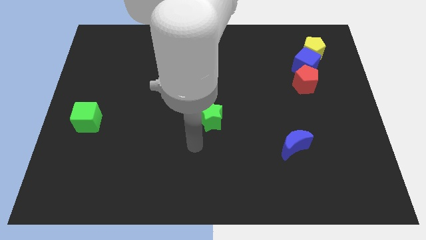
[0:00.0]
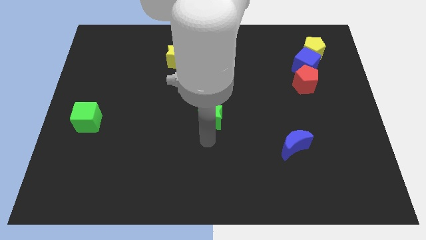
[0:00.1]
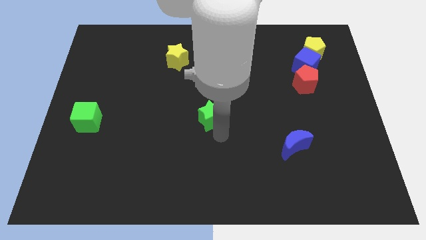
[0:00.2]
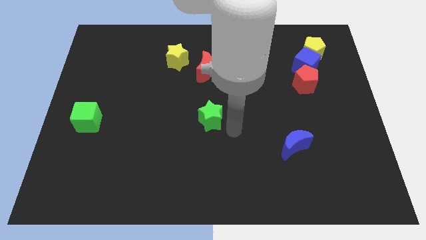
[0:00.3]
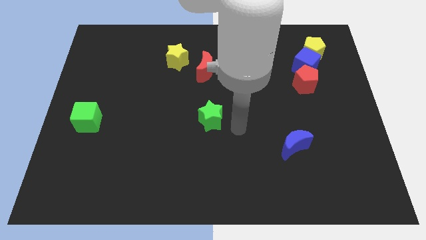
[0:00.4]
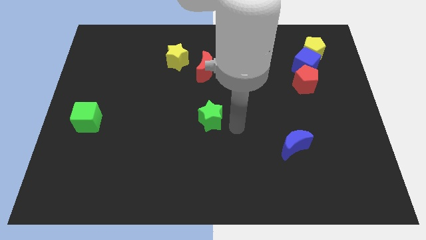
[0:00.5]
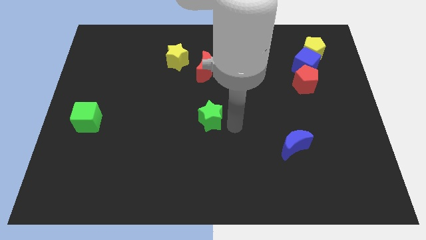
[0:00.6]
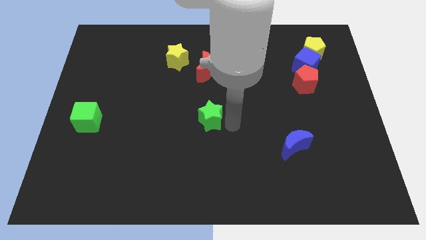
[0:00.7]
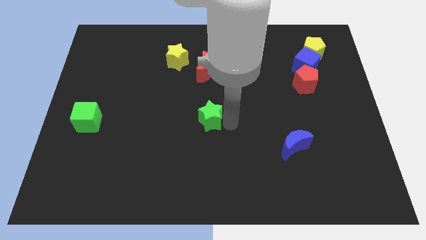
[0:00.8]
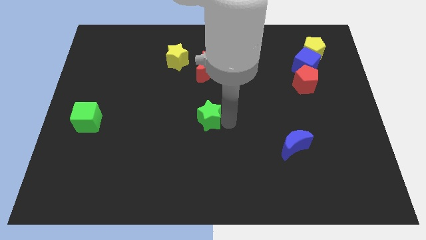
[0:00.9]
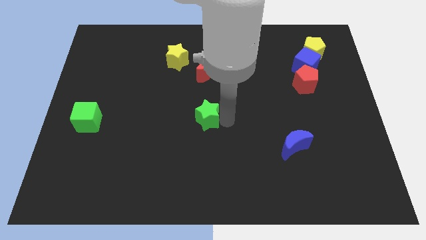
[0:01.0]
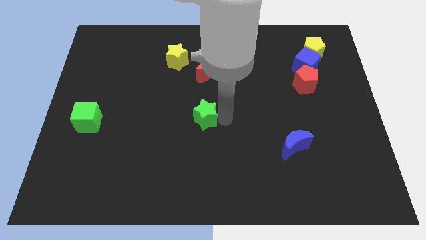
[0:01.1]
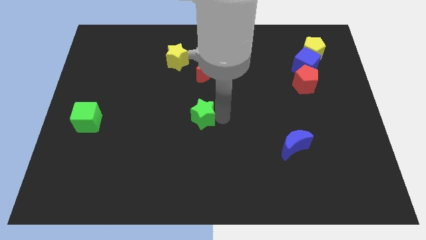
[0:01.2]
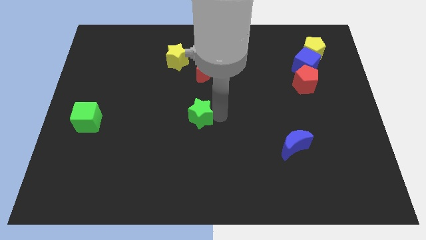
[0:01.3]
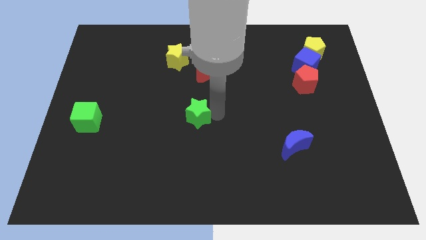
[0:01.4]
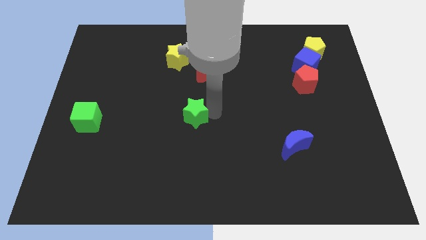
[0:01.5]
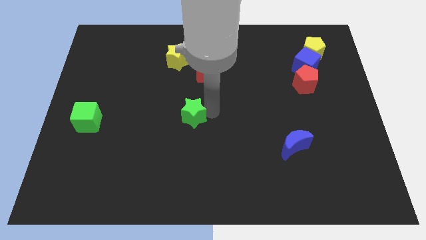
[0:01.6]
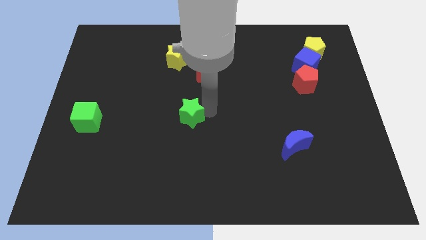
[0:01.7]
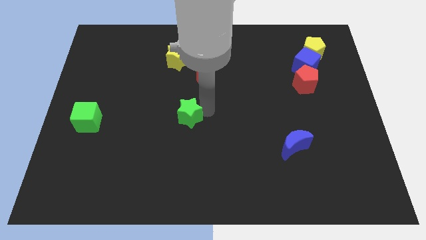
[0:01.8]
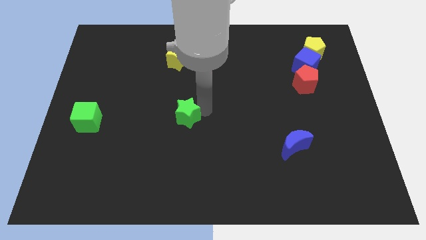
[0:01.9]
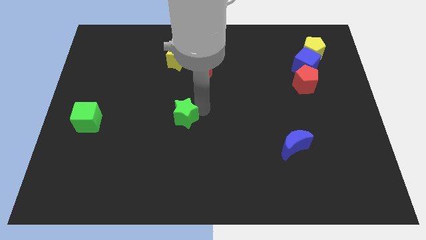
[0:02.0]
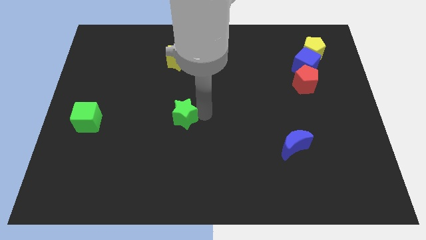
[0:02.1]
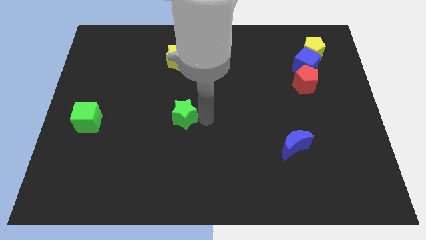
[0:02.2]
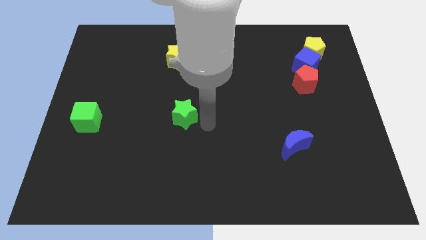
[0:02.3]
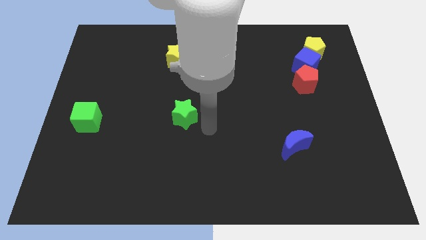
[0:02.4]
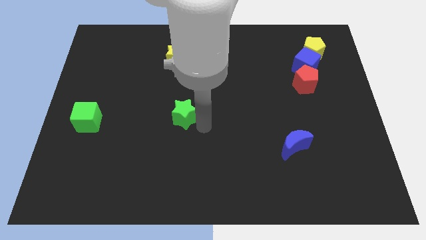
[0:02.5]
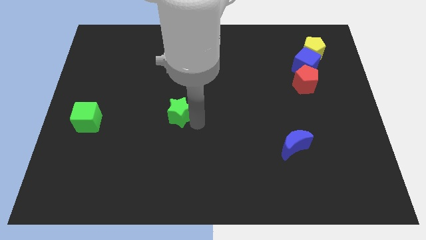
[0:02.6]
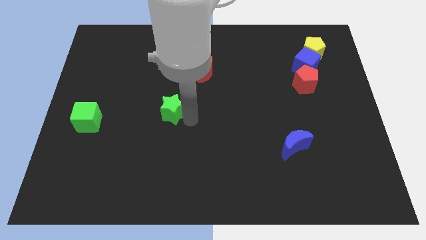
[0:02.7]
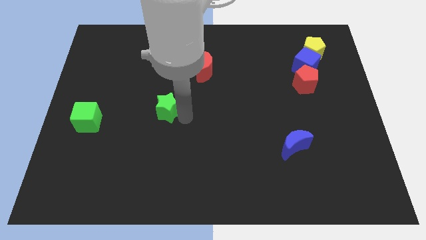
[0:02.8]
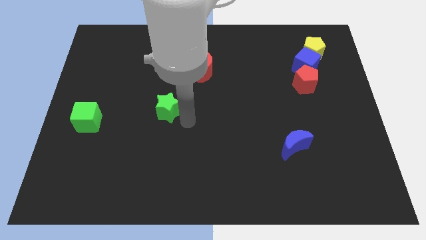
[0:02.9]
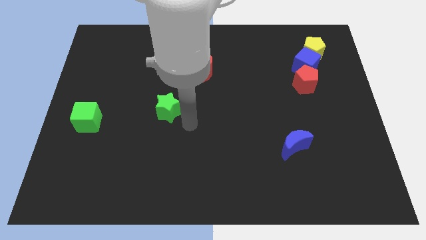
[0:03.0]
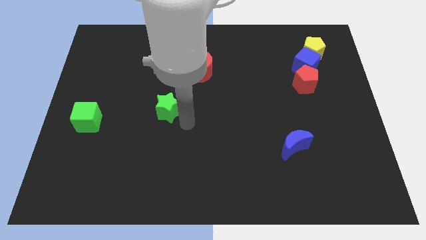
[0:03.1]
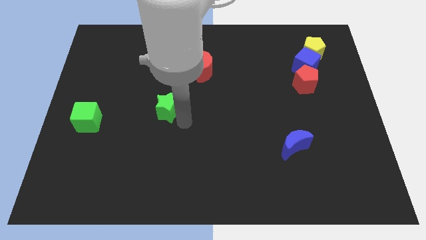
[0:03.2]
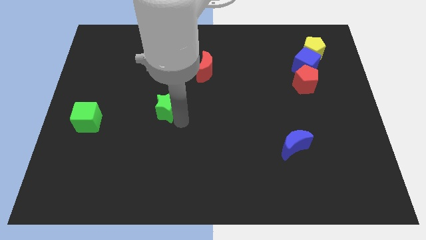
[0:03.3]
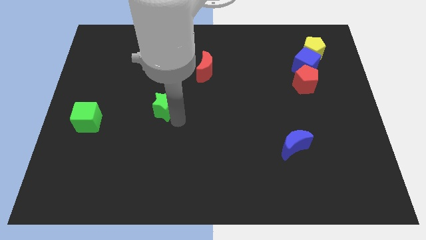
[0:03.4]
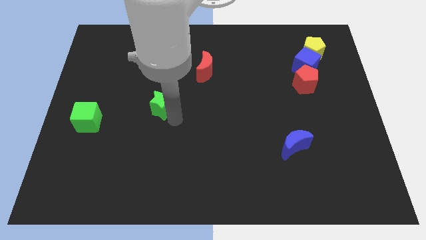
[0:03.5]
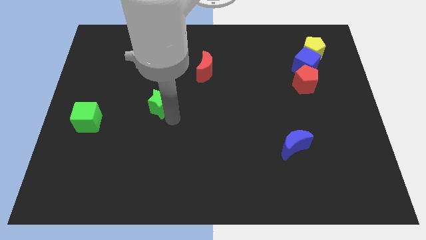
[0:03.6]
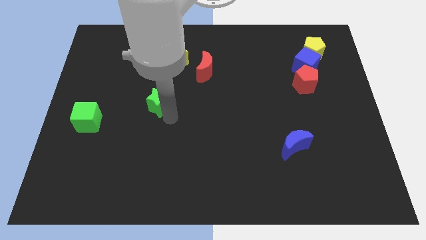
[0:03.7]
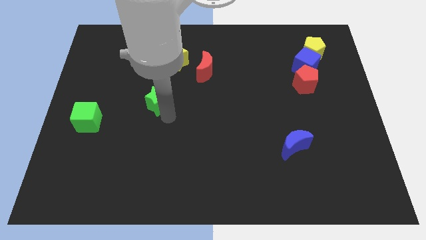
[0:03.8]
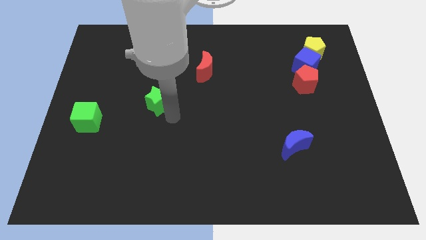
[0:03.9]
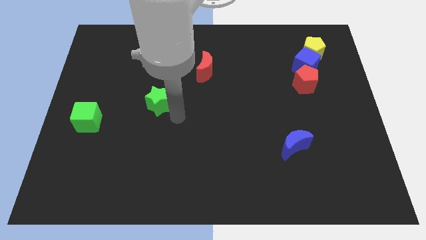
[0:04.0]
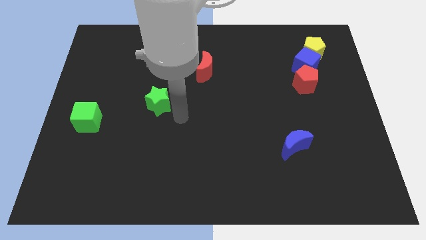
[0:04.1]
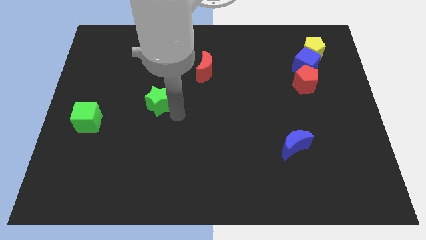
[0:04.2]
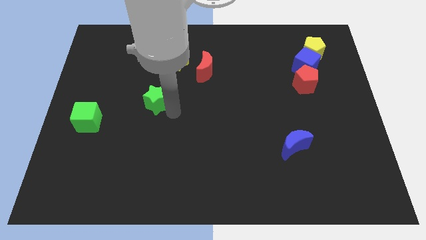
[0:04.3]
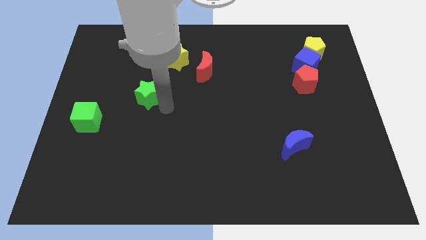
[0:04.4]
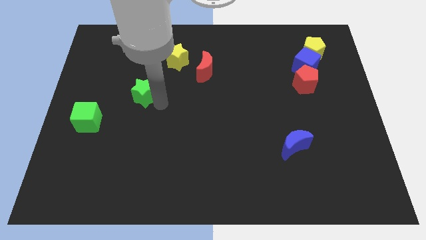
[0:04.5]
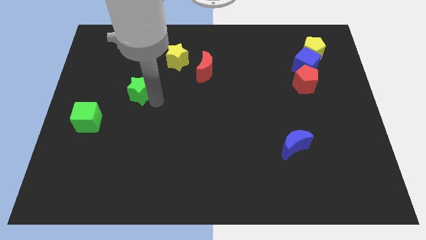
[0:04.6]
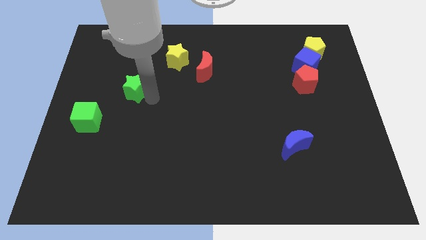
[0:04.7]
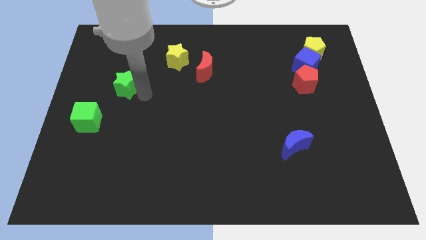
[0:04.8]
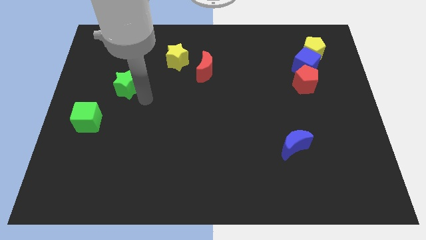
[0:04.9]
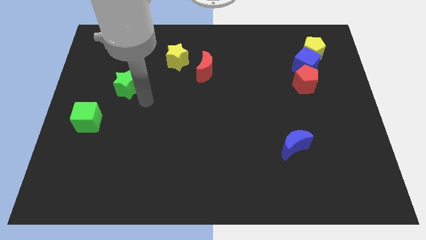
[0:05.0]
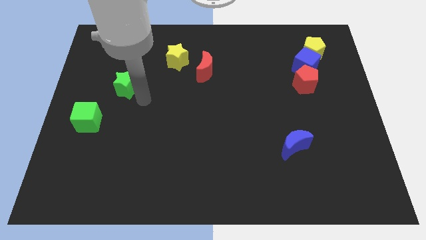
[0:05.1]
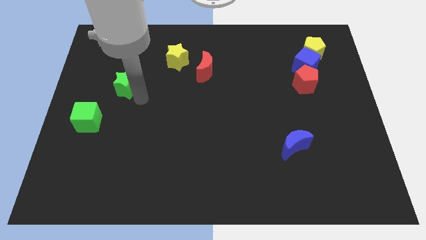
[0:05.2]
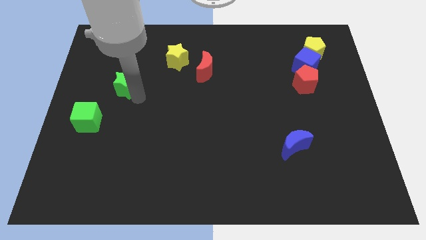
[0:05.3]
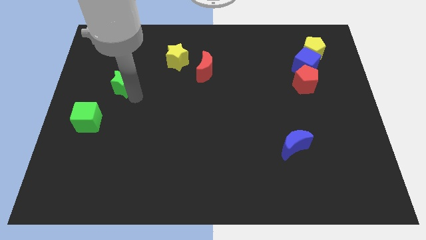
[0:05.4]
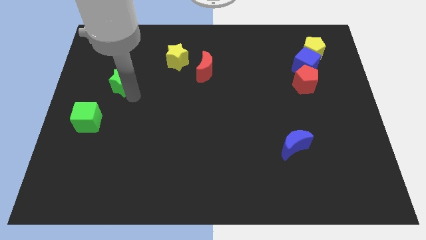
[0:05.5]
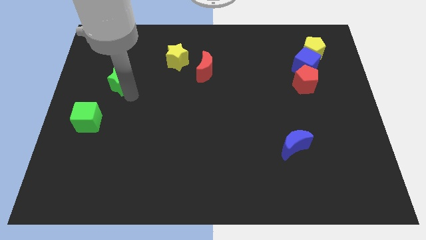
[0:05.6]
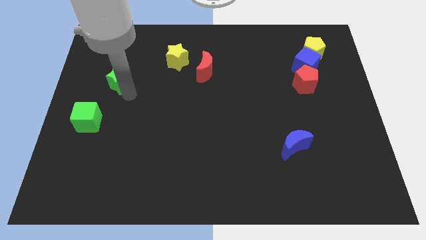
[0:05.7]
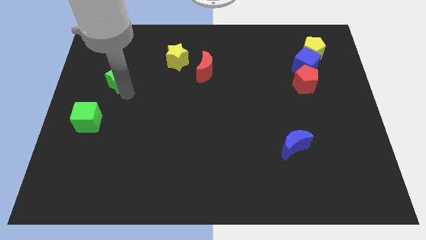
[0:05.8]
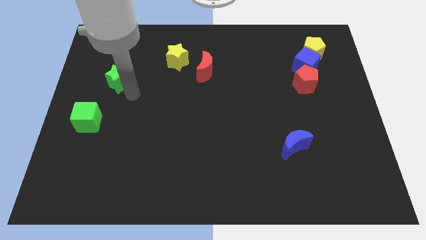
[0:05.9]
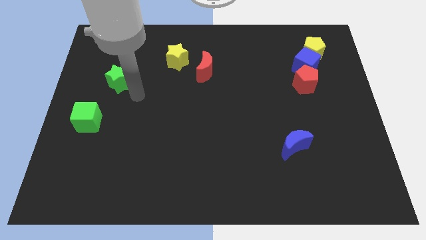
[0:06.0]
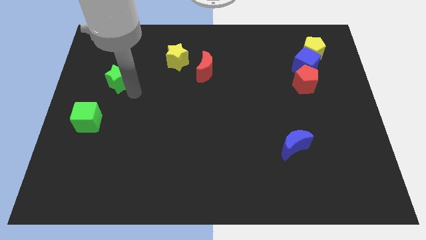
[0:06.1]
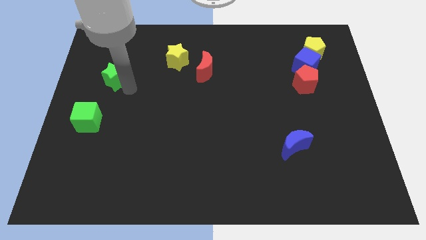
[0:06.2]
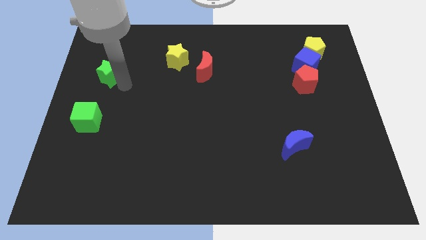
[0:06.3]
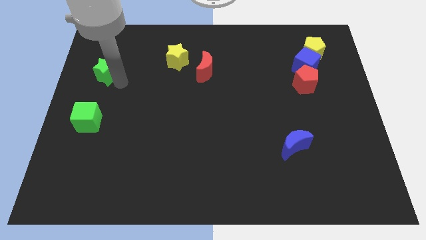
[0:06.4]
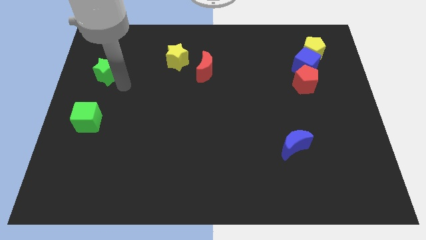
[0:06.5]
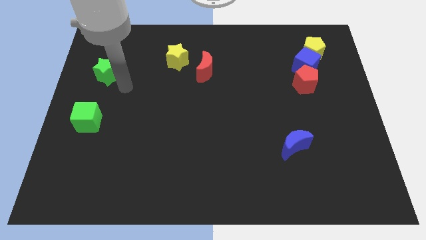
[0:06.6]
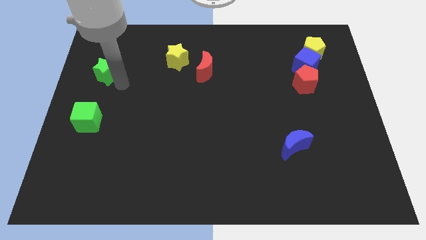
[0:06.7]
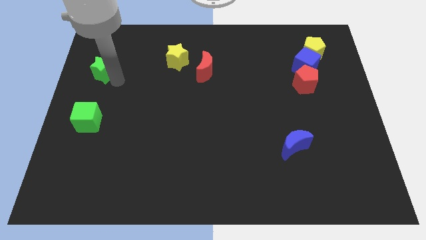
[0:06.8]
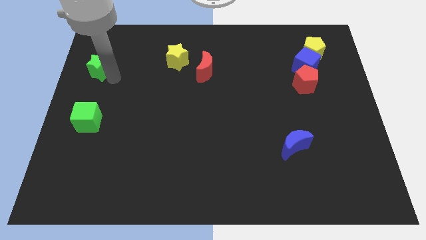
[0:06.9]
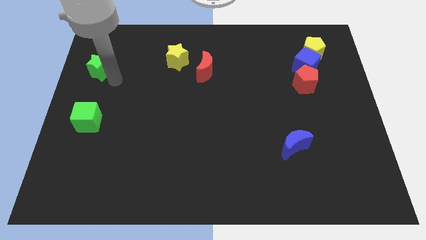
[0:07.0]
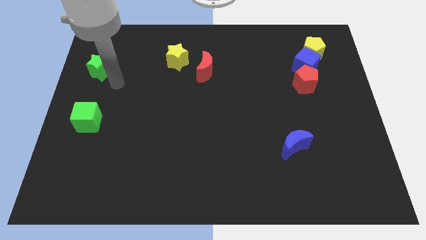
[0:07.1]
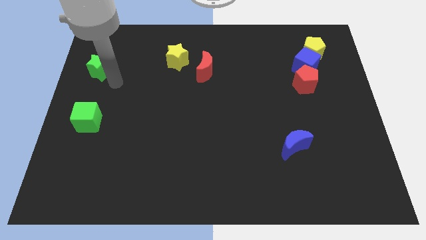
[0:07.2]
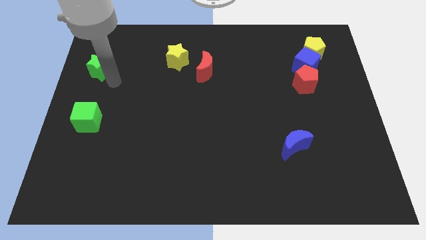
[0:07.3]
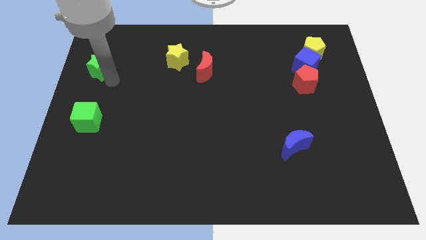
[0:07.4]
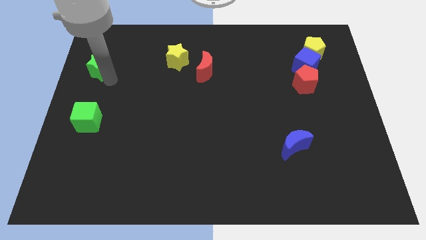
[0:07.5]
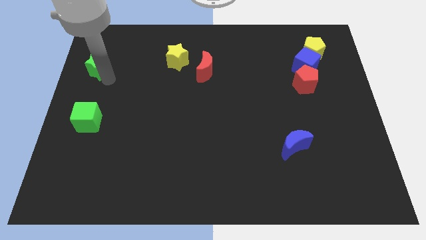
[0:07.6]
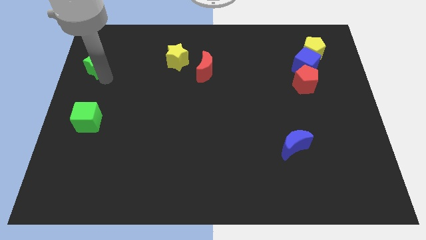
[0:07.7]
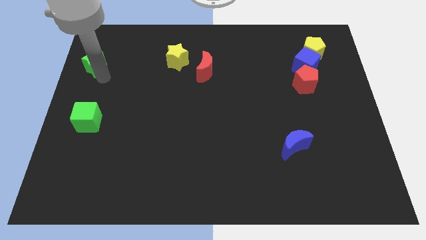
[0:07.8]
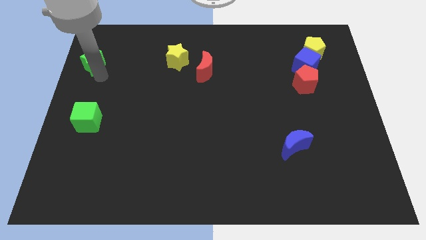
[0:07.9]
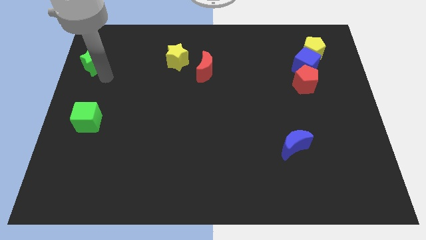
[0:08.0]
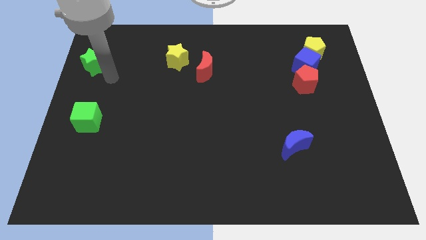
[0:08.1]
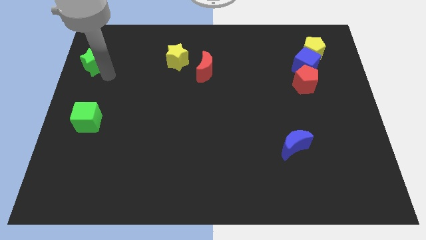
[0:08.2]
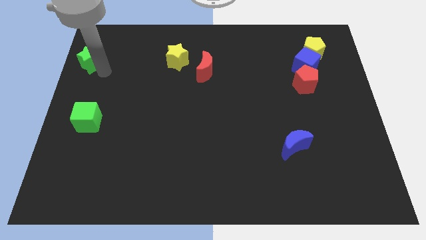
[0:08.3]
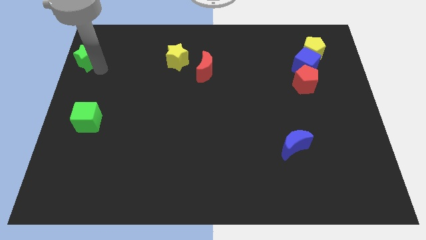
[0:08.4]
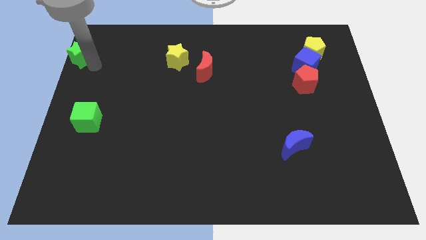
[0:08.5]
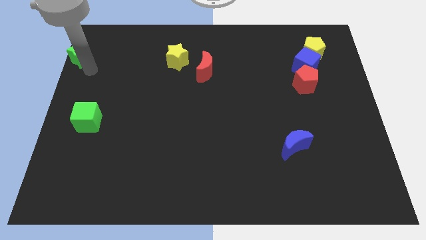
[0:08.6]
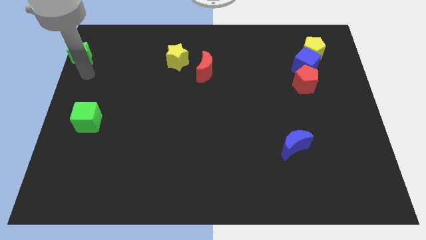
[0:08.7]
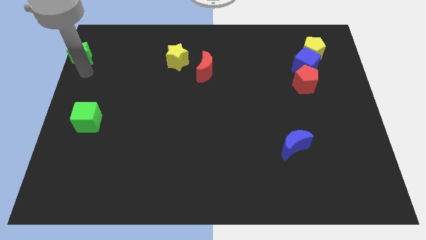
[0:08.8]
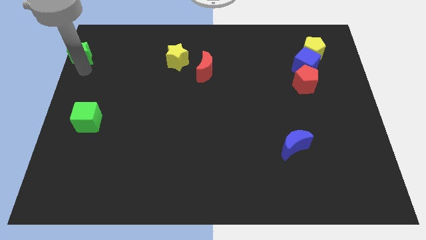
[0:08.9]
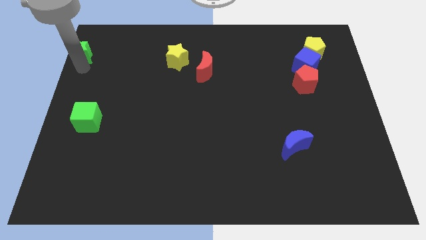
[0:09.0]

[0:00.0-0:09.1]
put the green star to the top left of the board
